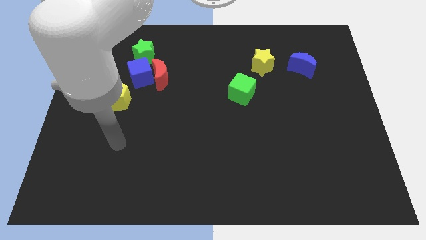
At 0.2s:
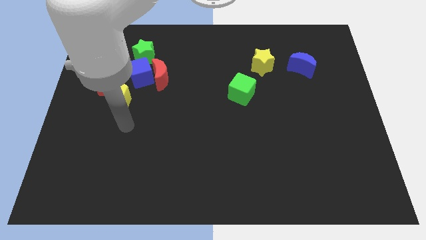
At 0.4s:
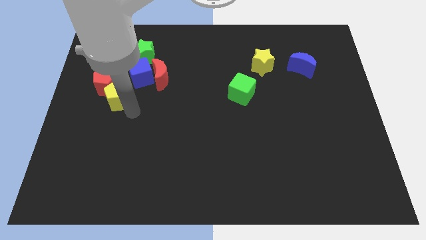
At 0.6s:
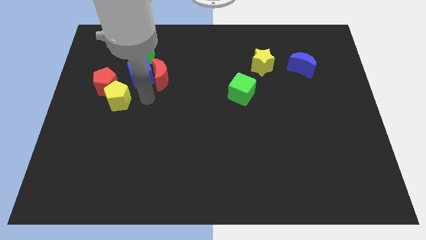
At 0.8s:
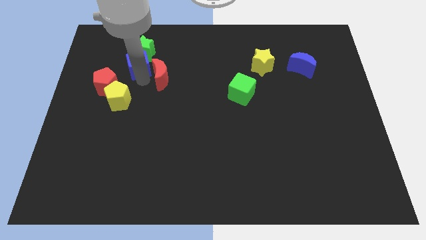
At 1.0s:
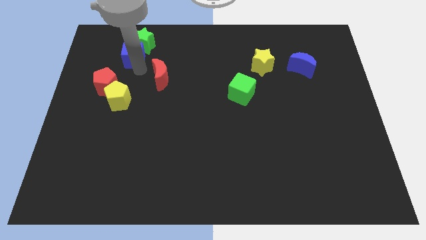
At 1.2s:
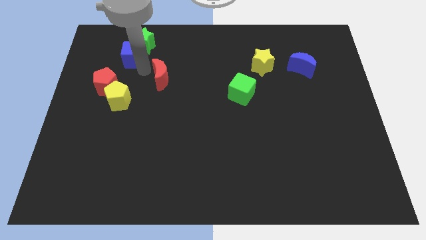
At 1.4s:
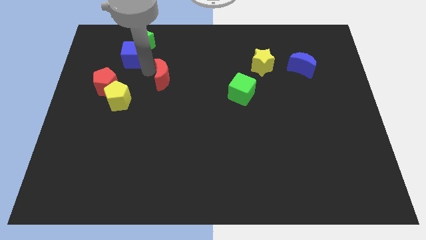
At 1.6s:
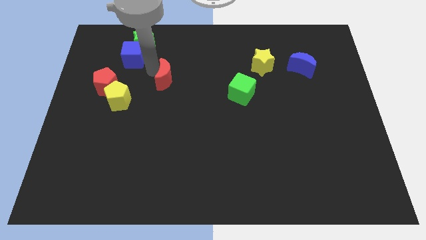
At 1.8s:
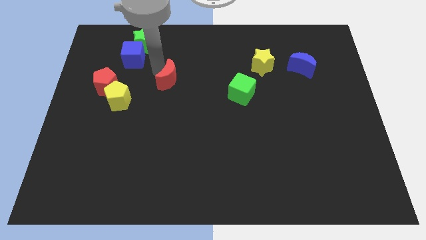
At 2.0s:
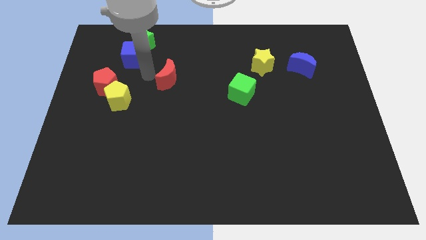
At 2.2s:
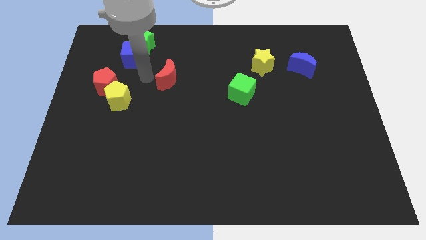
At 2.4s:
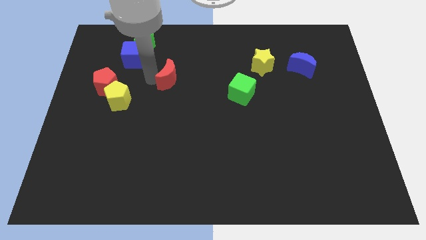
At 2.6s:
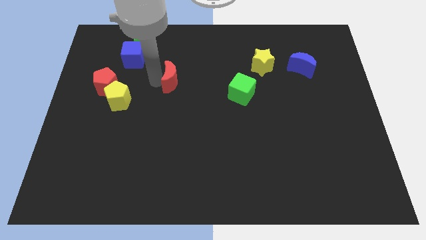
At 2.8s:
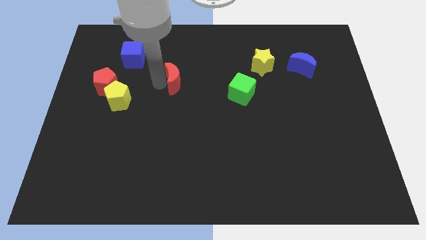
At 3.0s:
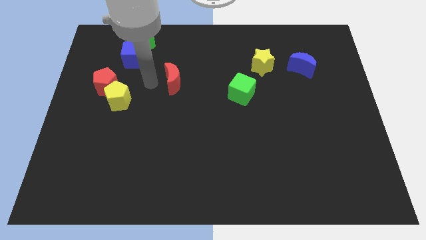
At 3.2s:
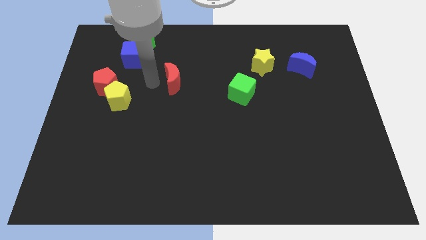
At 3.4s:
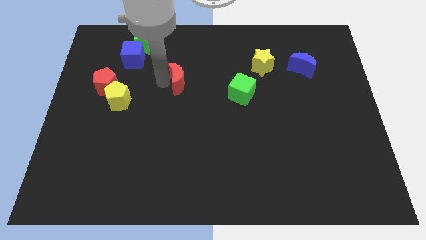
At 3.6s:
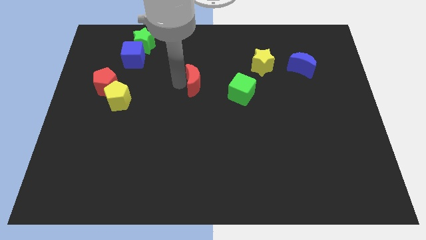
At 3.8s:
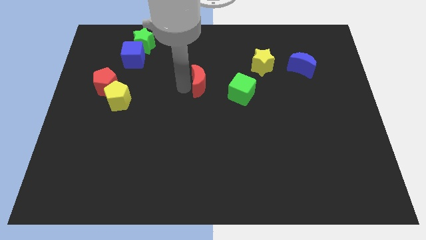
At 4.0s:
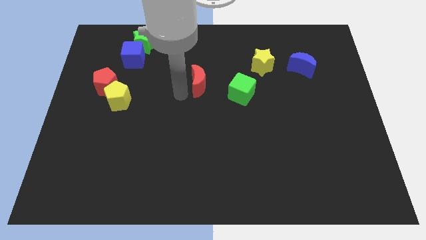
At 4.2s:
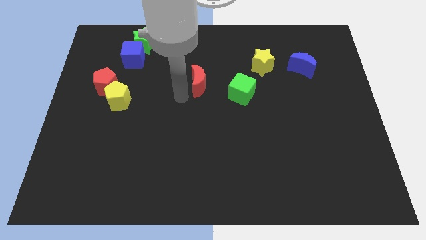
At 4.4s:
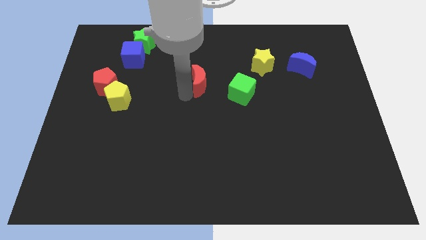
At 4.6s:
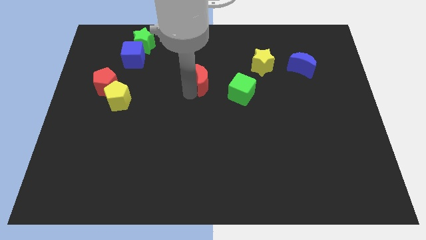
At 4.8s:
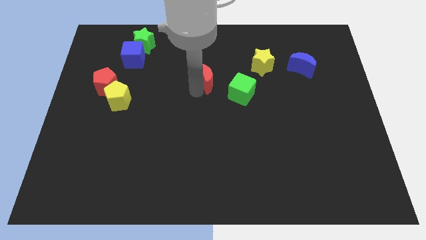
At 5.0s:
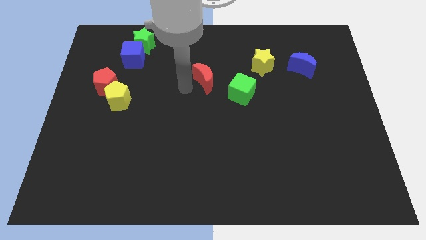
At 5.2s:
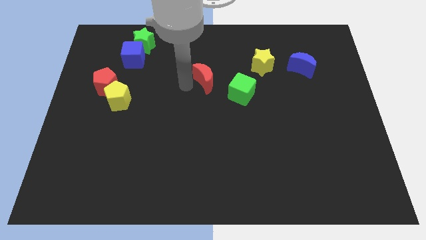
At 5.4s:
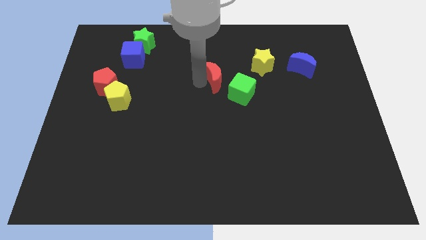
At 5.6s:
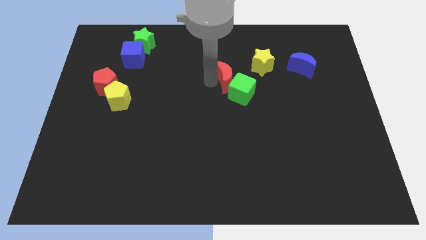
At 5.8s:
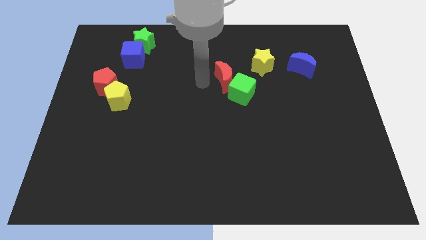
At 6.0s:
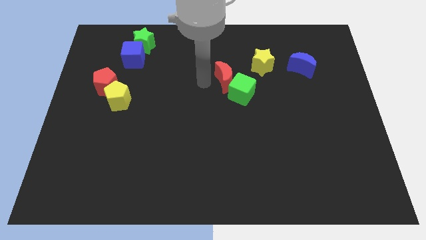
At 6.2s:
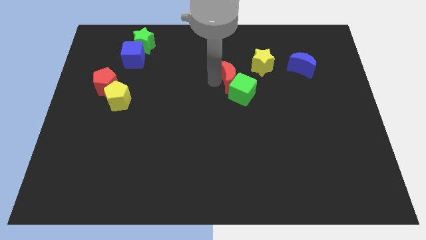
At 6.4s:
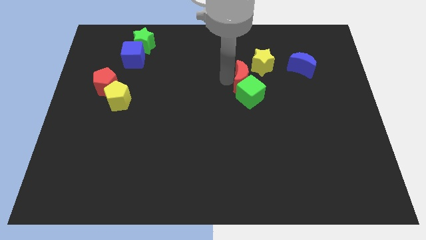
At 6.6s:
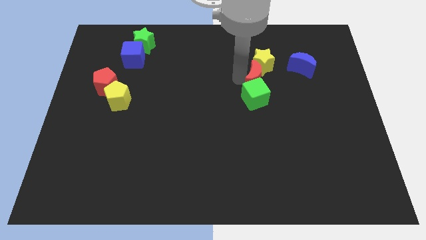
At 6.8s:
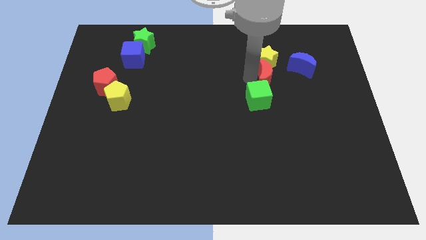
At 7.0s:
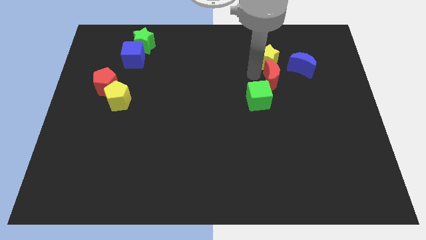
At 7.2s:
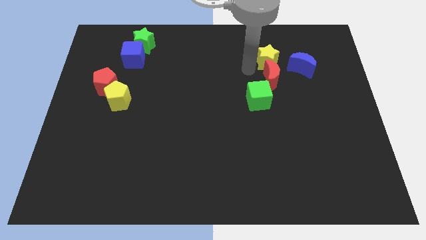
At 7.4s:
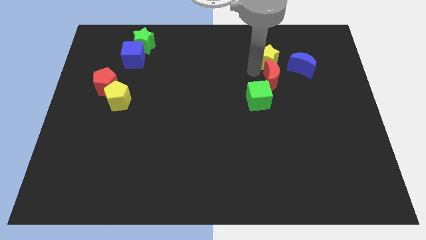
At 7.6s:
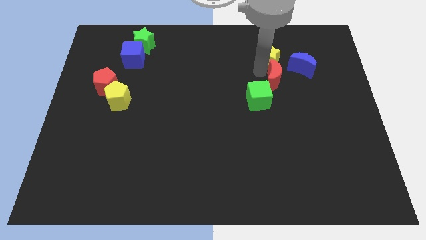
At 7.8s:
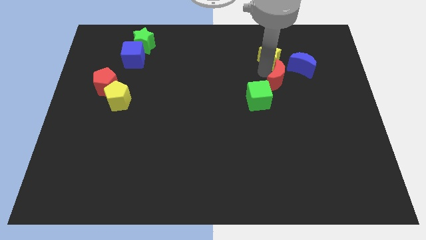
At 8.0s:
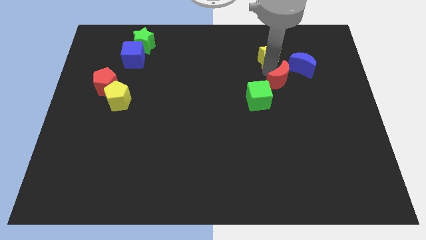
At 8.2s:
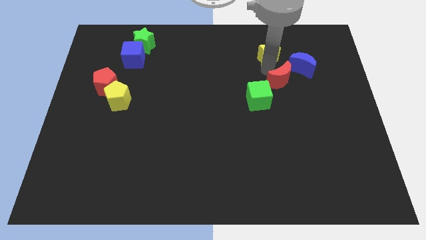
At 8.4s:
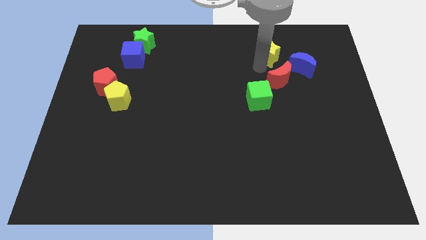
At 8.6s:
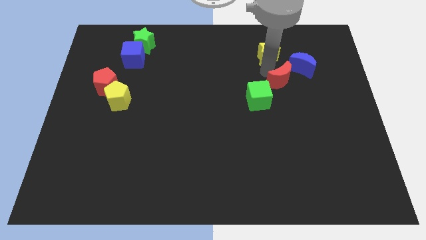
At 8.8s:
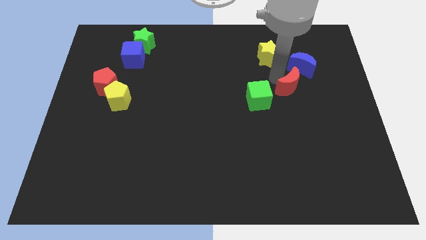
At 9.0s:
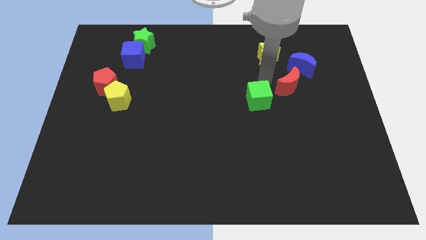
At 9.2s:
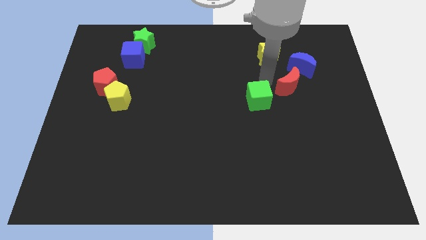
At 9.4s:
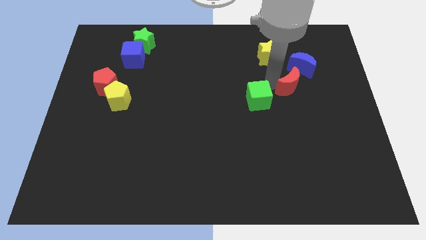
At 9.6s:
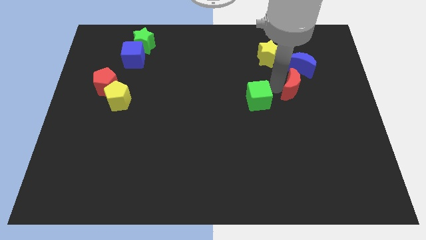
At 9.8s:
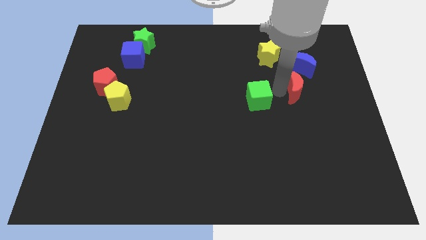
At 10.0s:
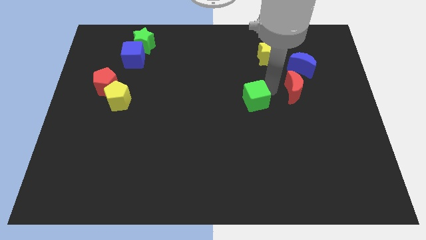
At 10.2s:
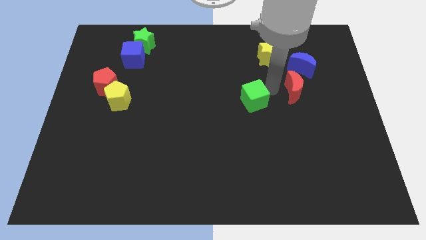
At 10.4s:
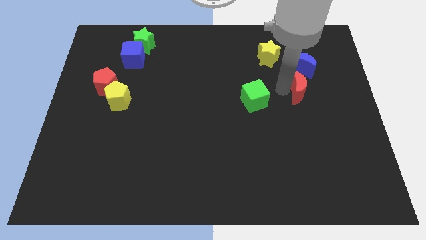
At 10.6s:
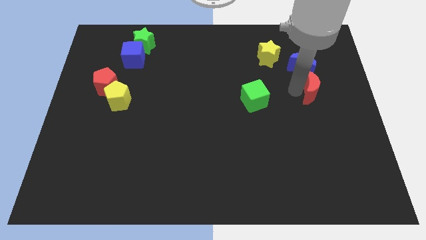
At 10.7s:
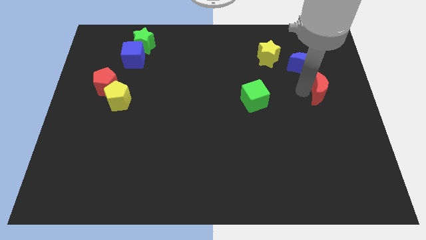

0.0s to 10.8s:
slide the red moon to the right side of the board

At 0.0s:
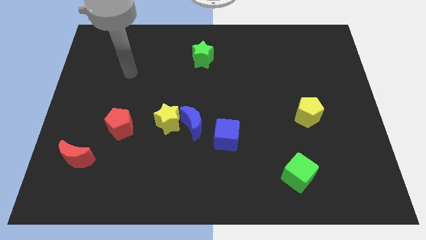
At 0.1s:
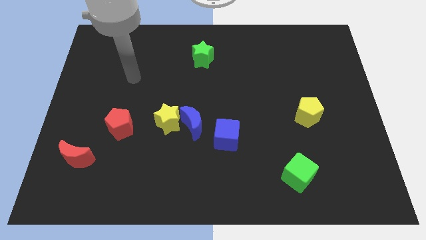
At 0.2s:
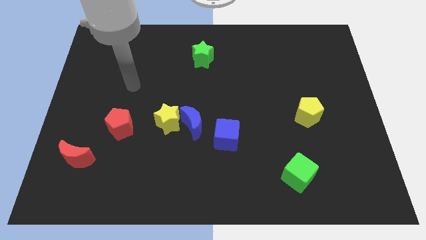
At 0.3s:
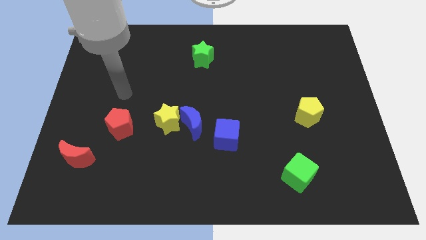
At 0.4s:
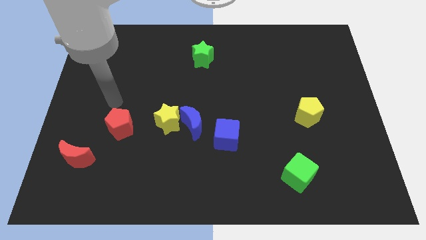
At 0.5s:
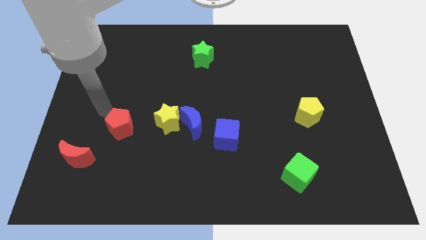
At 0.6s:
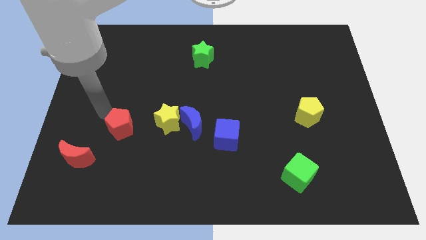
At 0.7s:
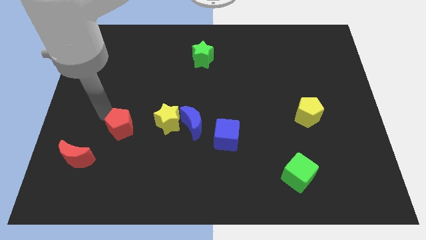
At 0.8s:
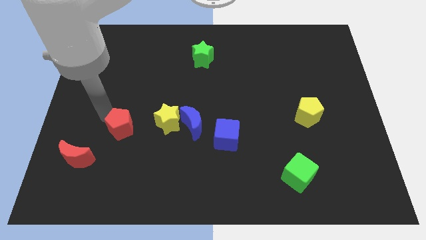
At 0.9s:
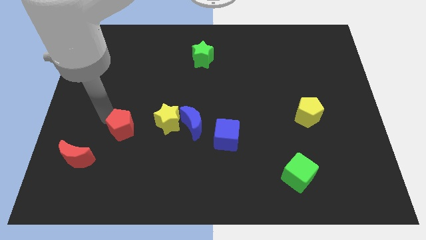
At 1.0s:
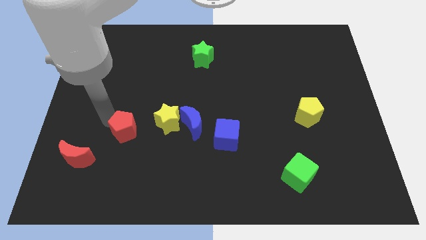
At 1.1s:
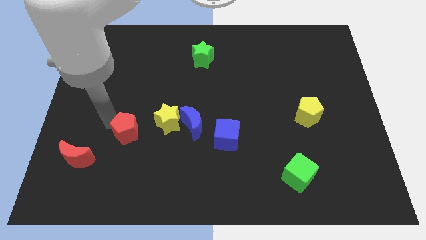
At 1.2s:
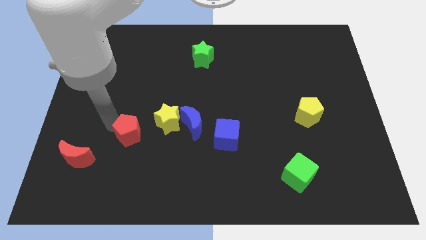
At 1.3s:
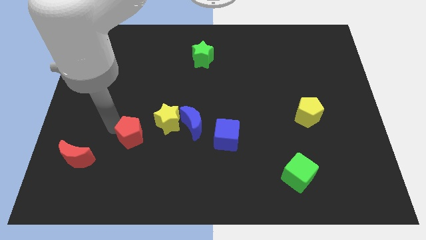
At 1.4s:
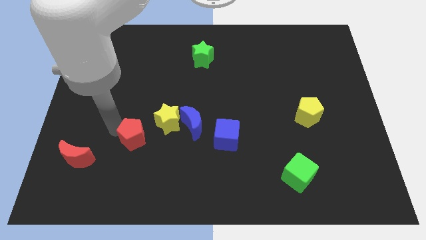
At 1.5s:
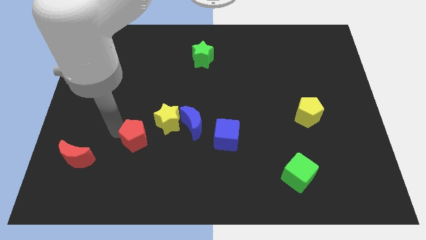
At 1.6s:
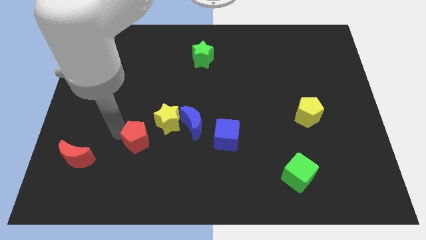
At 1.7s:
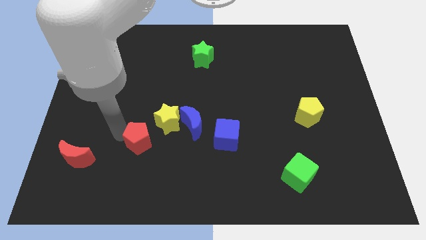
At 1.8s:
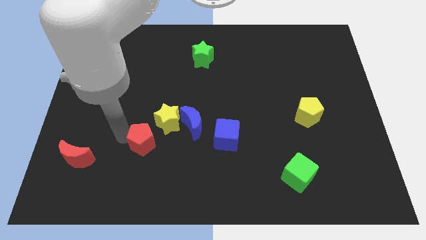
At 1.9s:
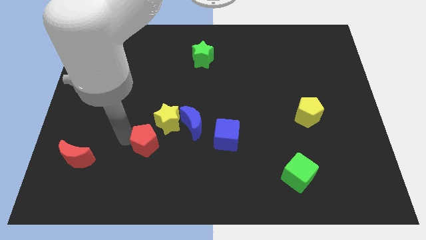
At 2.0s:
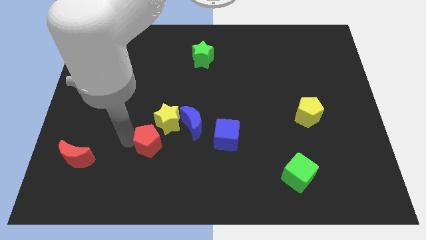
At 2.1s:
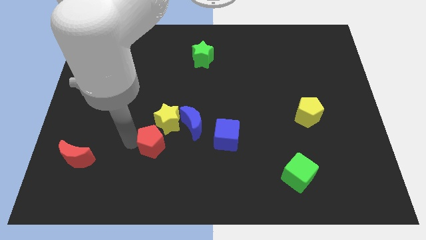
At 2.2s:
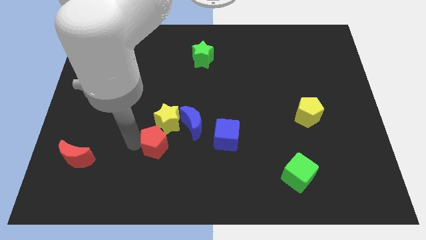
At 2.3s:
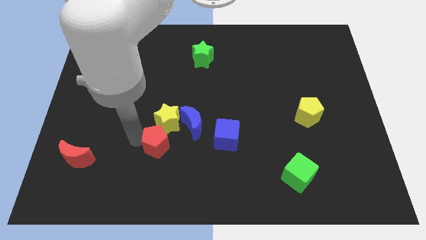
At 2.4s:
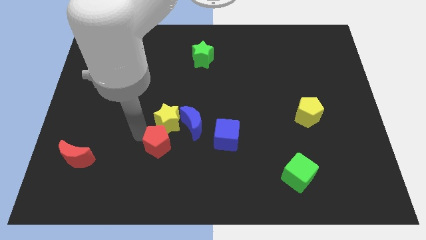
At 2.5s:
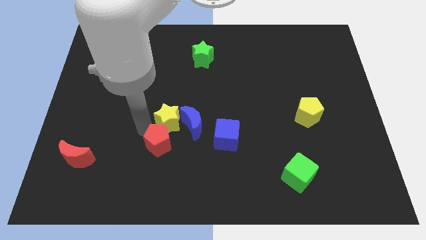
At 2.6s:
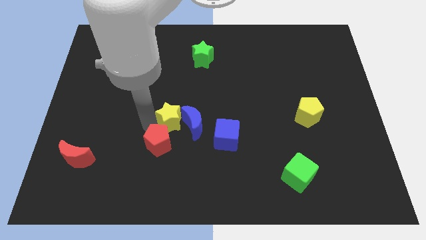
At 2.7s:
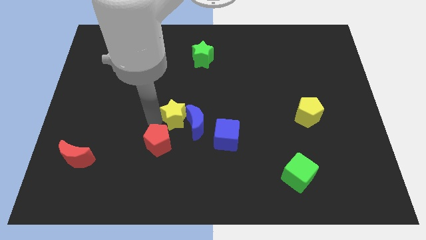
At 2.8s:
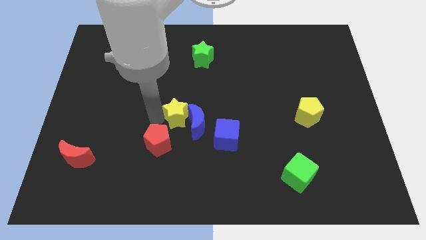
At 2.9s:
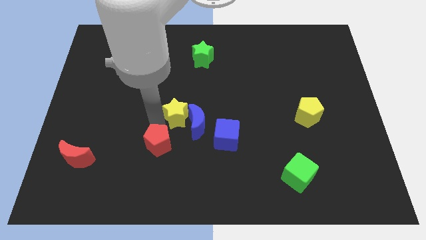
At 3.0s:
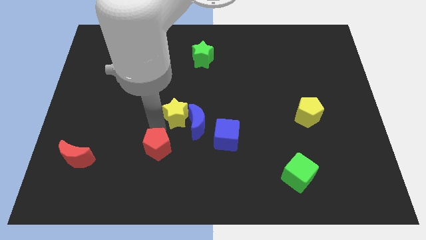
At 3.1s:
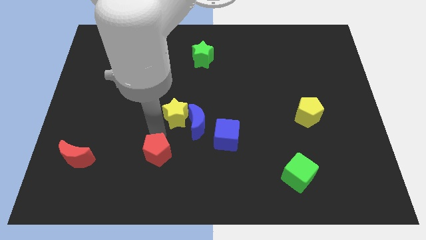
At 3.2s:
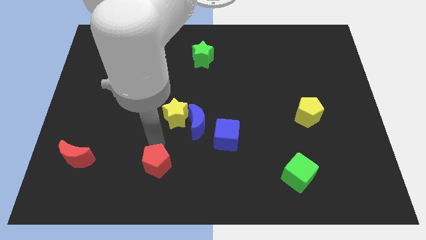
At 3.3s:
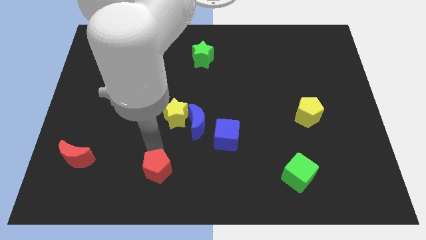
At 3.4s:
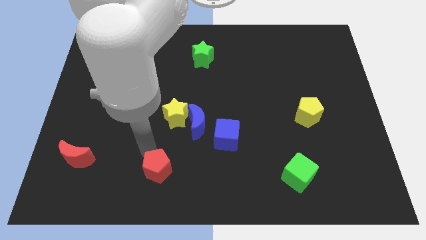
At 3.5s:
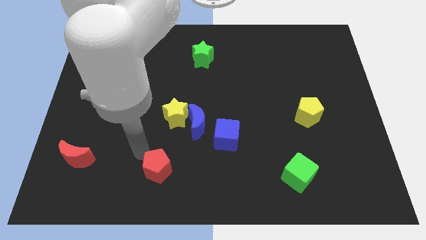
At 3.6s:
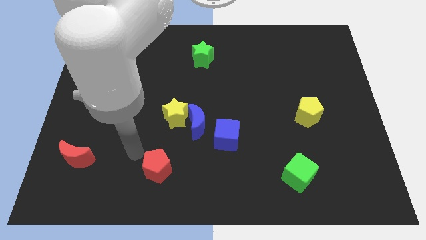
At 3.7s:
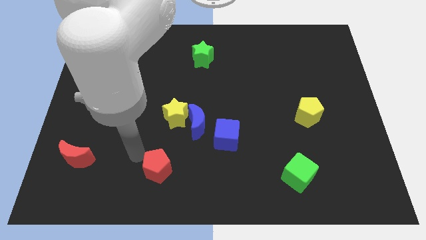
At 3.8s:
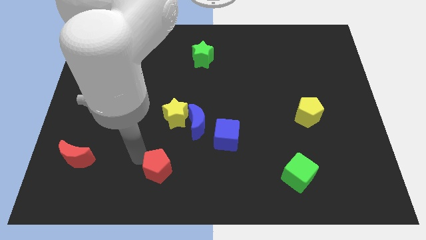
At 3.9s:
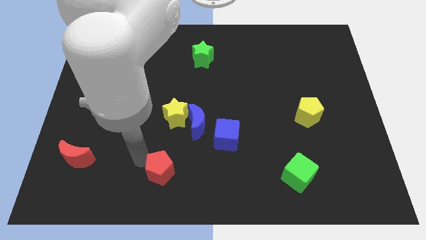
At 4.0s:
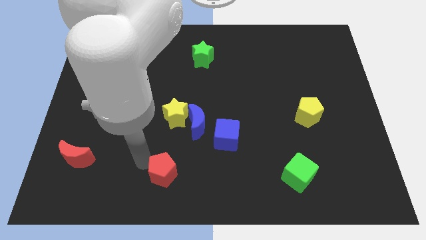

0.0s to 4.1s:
put the red pentagon to the bottom
